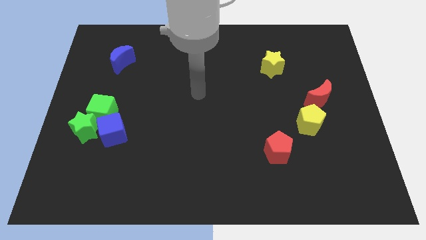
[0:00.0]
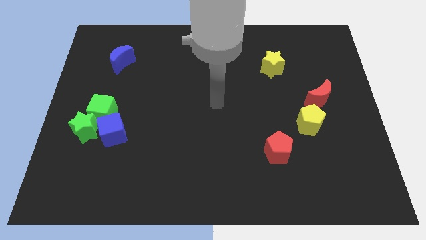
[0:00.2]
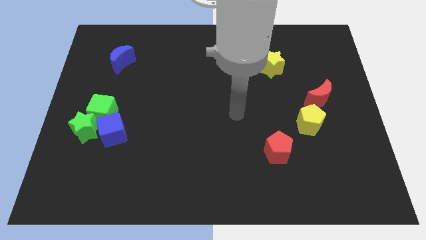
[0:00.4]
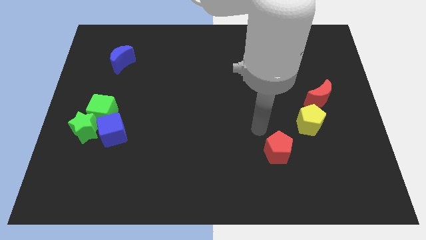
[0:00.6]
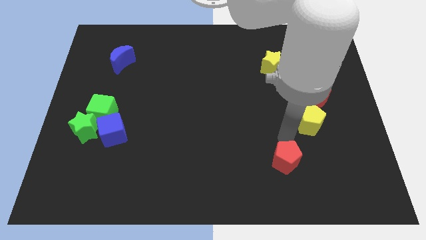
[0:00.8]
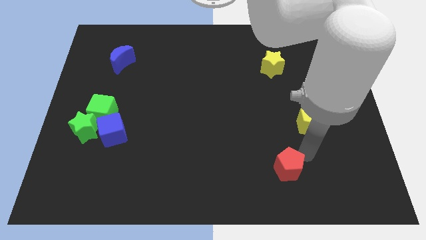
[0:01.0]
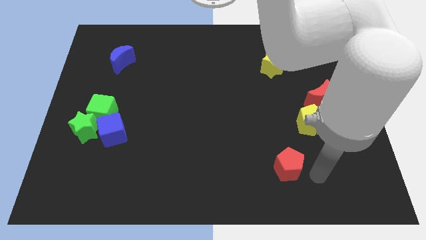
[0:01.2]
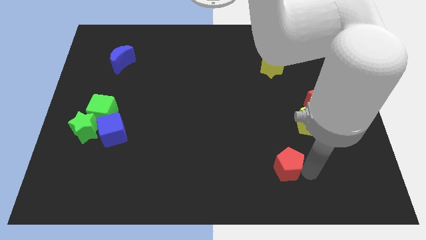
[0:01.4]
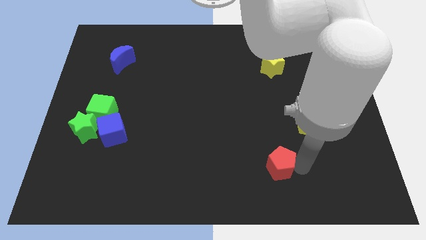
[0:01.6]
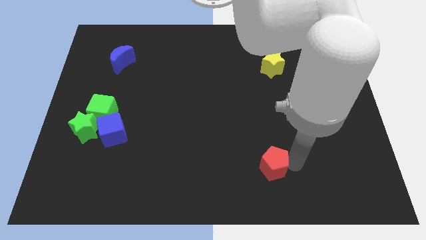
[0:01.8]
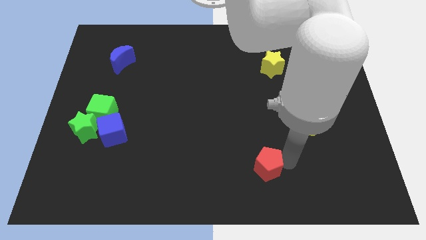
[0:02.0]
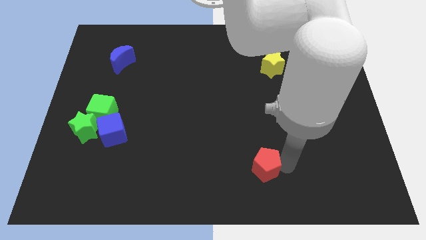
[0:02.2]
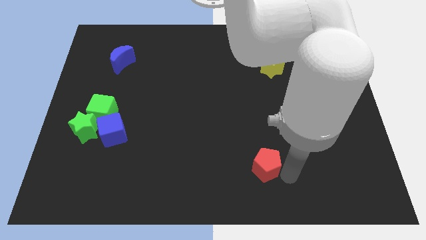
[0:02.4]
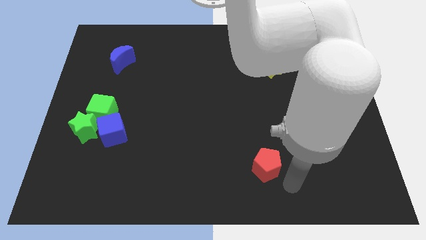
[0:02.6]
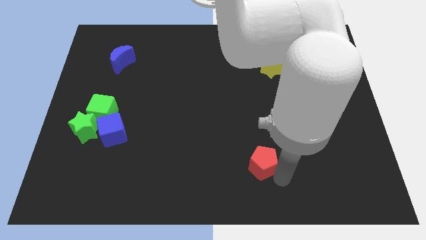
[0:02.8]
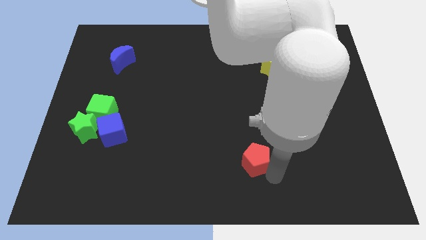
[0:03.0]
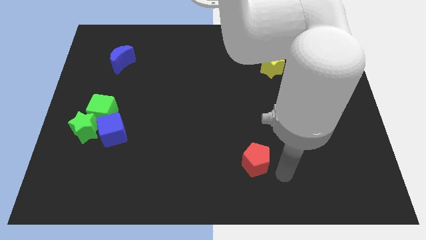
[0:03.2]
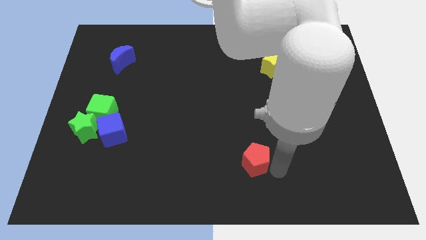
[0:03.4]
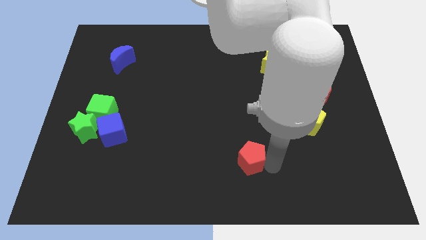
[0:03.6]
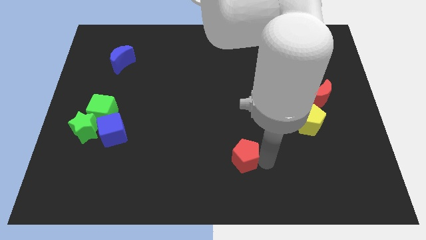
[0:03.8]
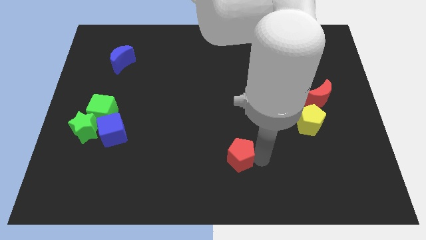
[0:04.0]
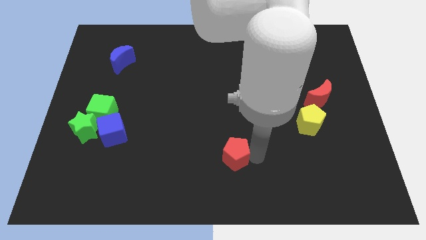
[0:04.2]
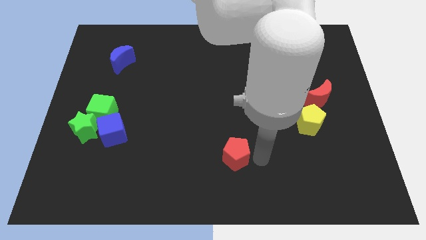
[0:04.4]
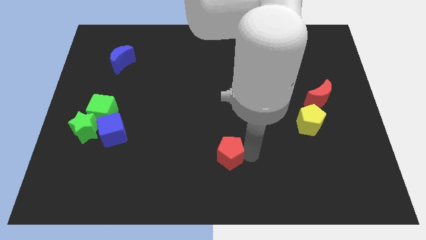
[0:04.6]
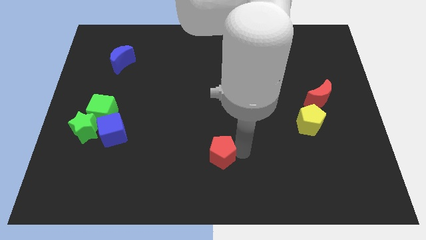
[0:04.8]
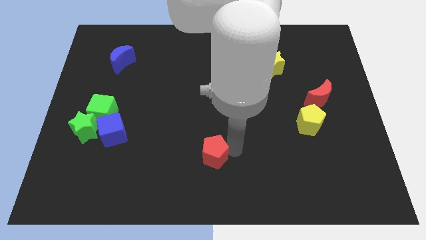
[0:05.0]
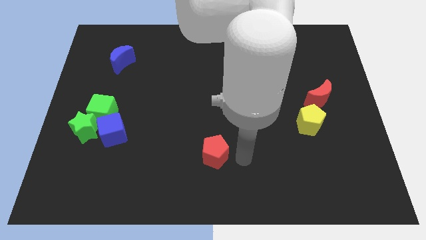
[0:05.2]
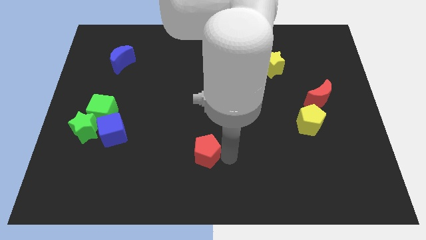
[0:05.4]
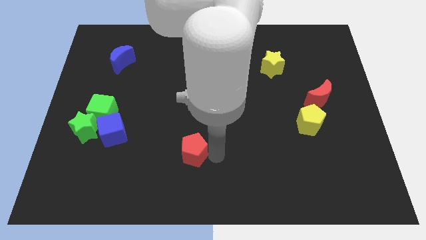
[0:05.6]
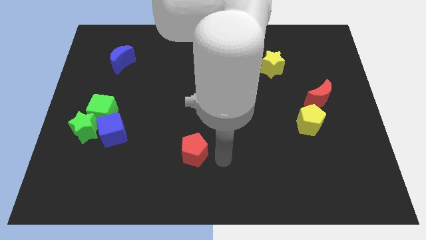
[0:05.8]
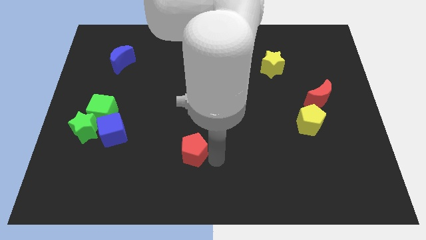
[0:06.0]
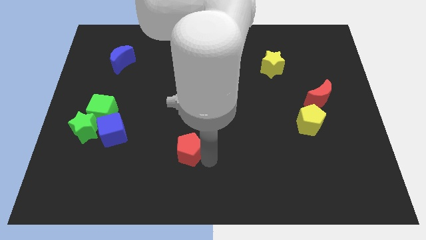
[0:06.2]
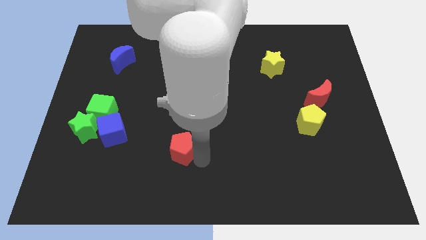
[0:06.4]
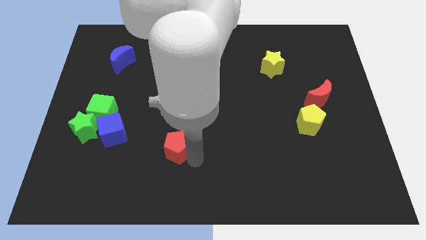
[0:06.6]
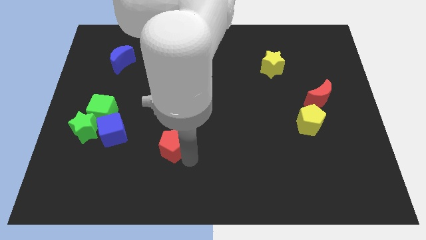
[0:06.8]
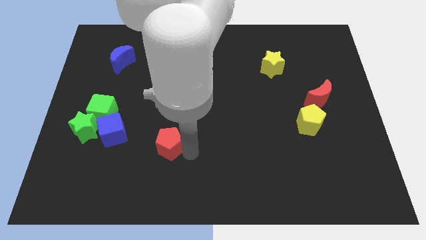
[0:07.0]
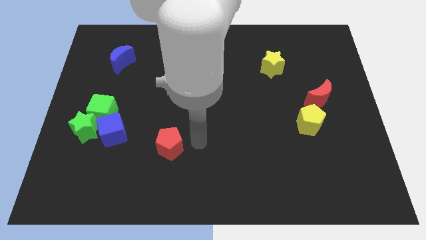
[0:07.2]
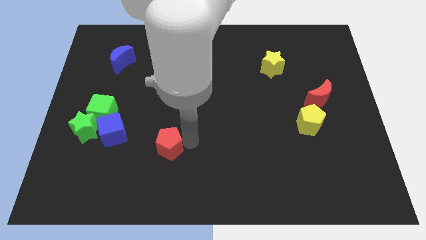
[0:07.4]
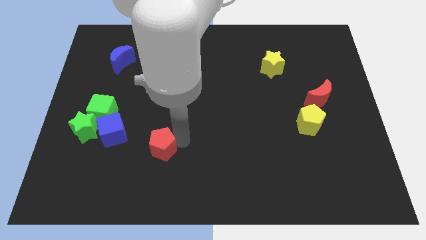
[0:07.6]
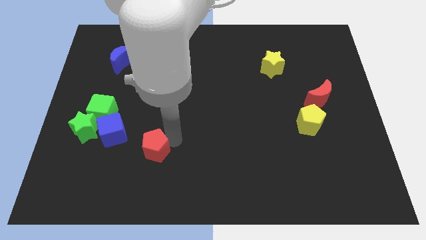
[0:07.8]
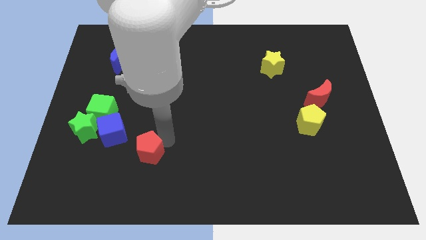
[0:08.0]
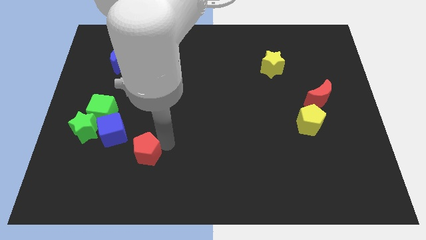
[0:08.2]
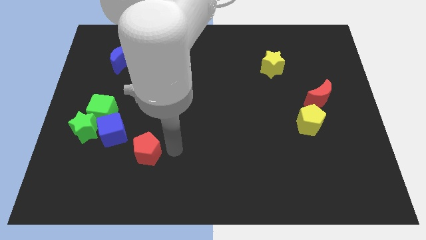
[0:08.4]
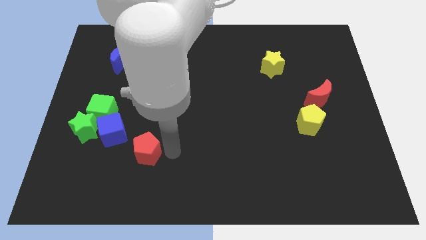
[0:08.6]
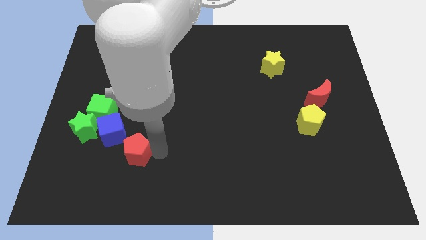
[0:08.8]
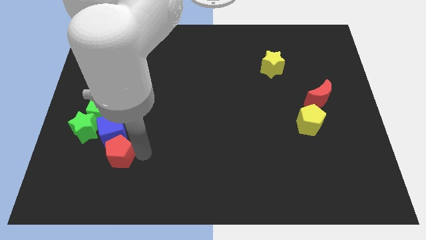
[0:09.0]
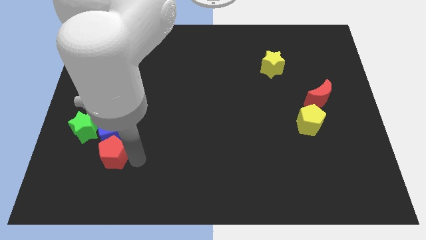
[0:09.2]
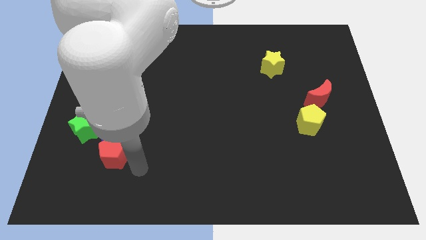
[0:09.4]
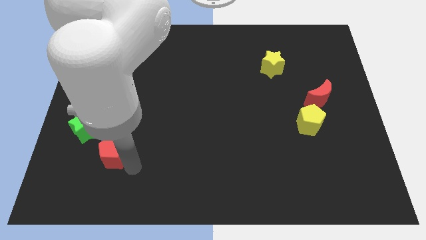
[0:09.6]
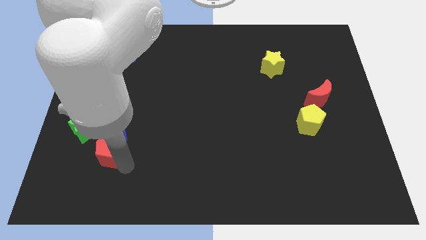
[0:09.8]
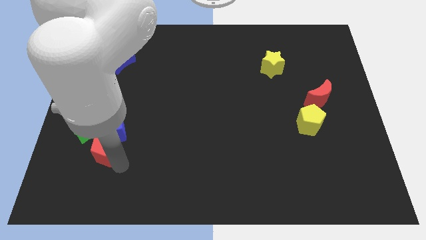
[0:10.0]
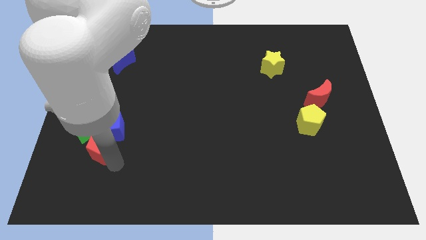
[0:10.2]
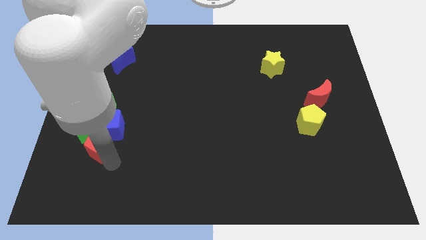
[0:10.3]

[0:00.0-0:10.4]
push the red pentagon to the green star

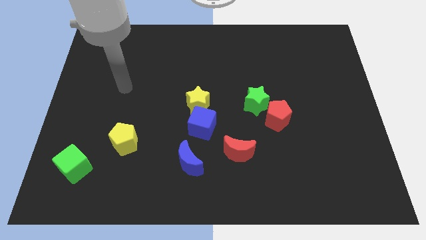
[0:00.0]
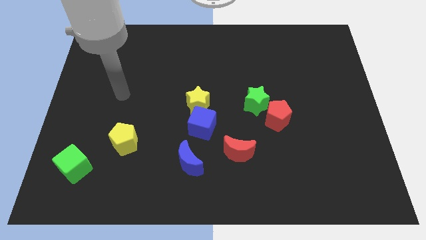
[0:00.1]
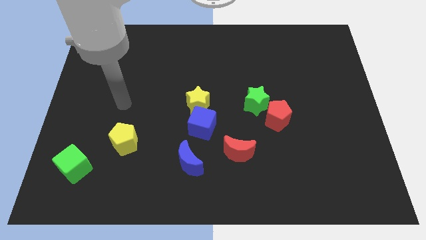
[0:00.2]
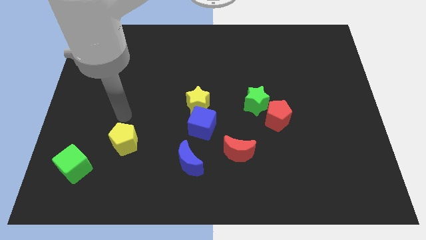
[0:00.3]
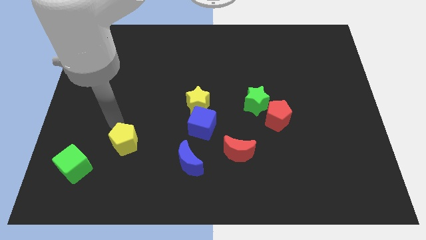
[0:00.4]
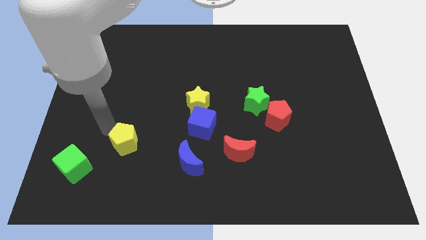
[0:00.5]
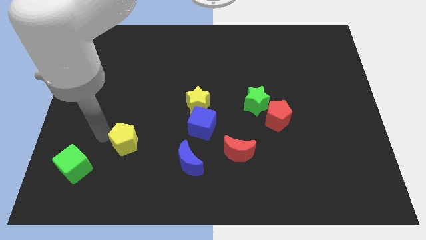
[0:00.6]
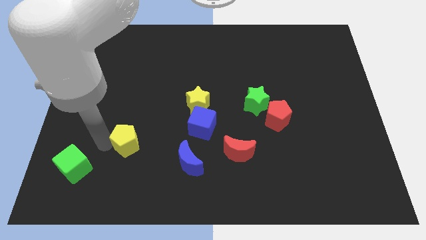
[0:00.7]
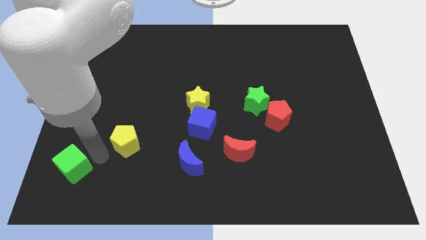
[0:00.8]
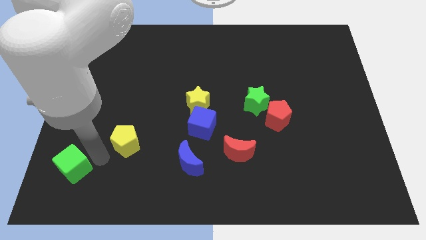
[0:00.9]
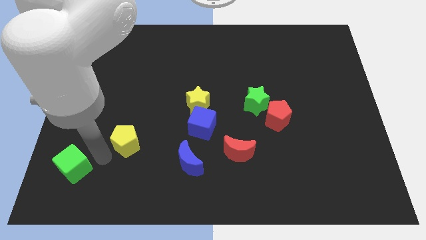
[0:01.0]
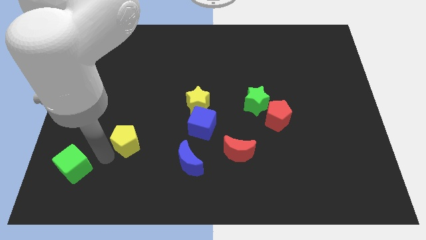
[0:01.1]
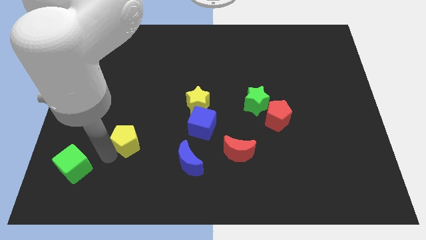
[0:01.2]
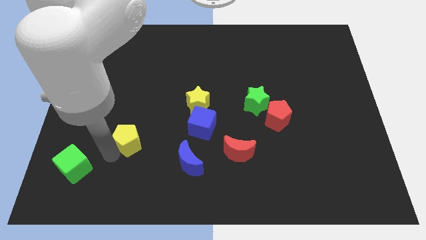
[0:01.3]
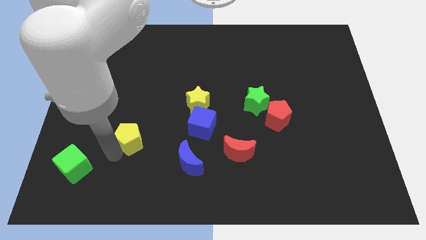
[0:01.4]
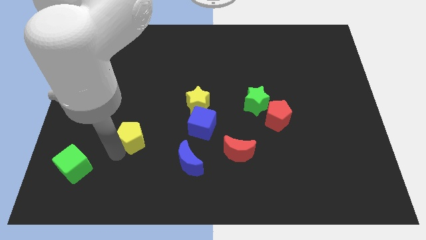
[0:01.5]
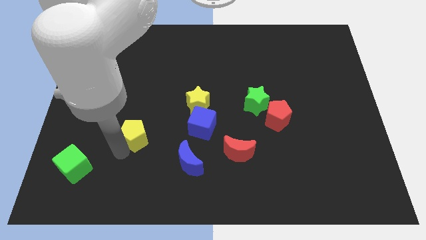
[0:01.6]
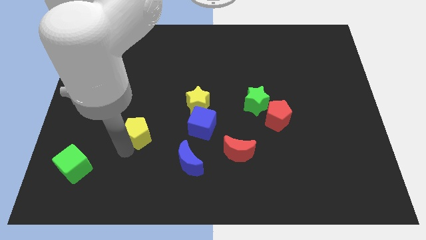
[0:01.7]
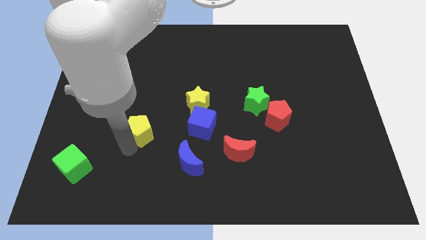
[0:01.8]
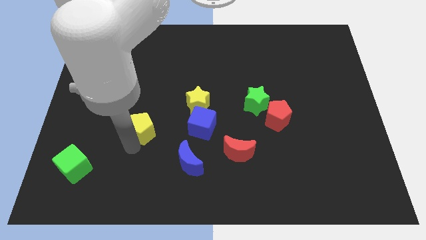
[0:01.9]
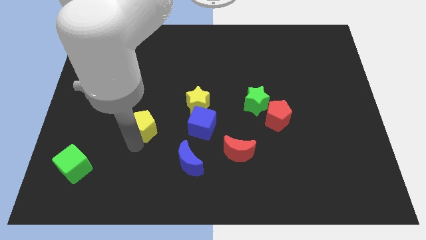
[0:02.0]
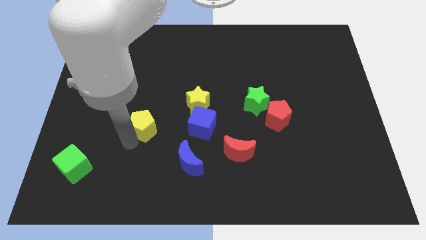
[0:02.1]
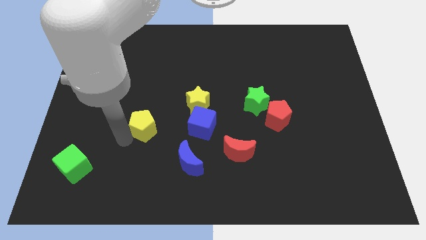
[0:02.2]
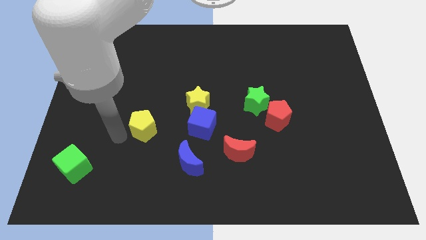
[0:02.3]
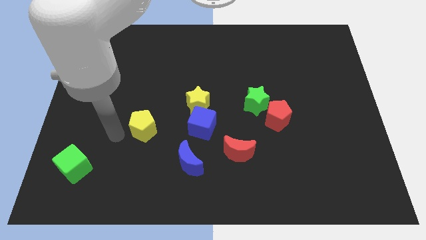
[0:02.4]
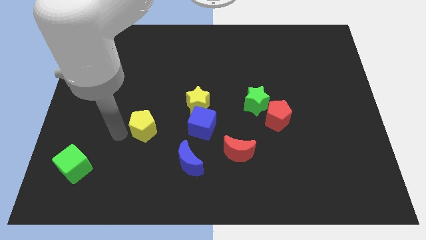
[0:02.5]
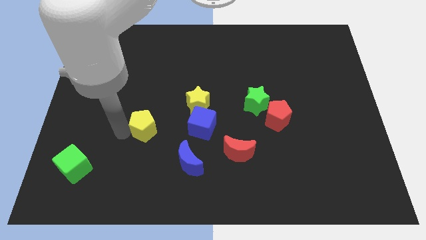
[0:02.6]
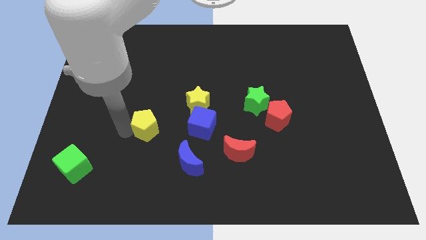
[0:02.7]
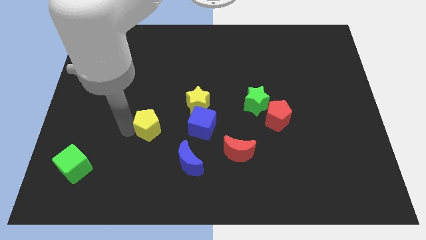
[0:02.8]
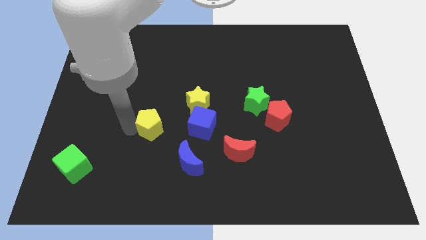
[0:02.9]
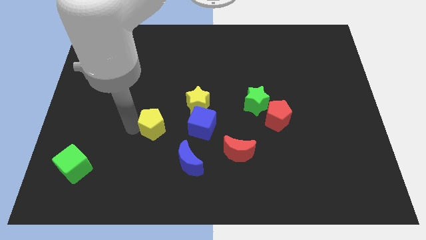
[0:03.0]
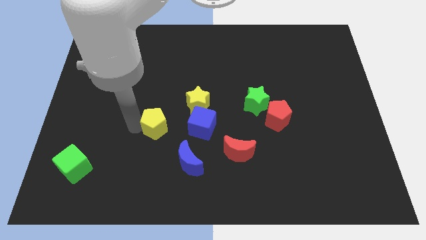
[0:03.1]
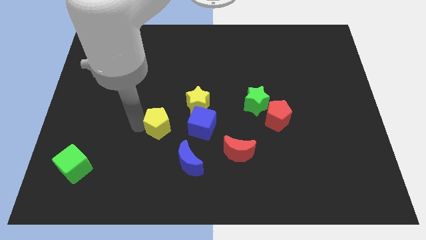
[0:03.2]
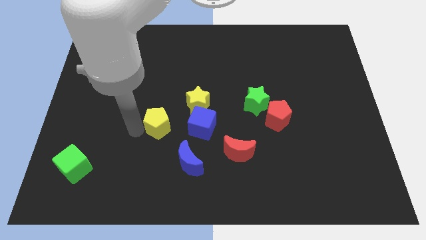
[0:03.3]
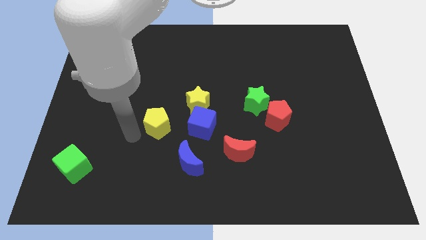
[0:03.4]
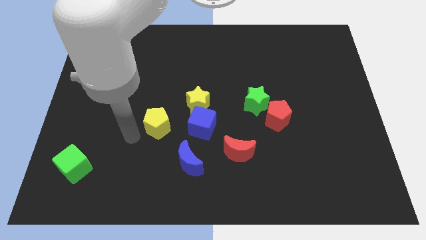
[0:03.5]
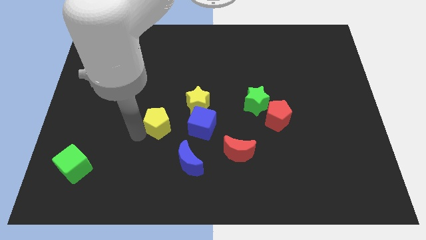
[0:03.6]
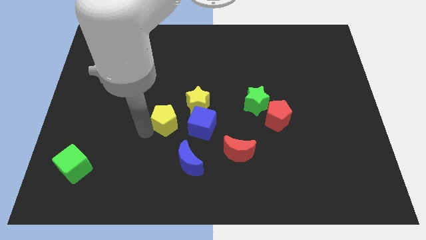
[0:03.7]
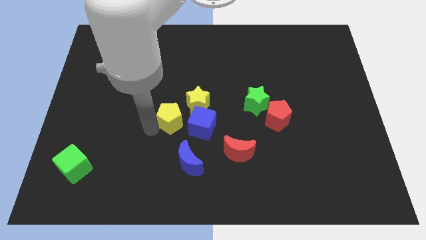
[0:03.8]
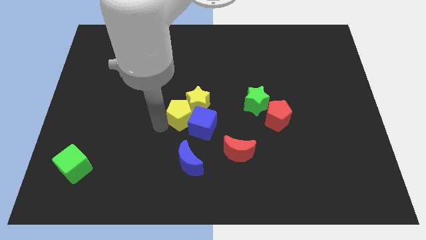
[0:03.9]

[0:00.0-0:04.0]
move the yellow pentagon next to the yellow star
